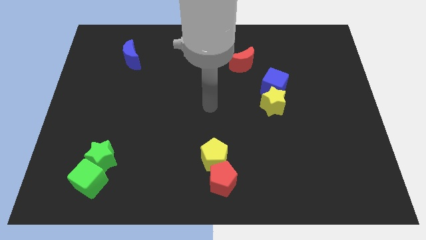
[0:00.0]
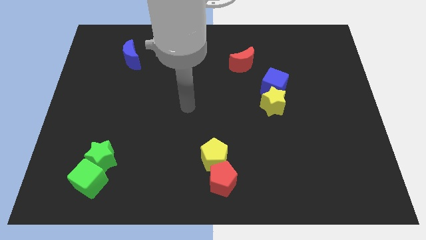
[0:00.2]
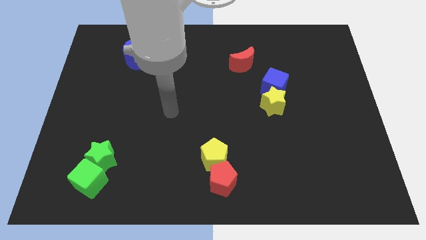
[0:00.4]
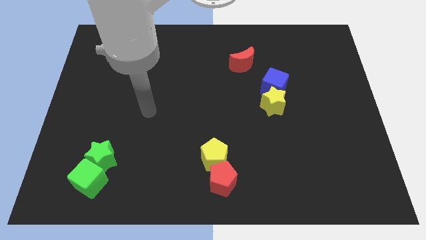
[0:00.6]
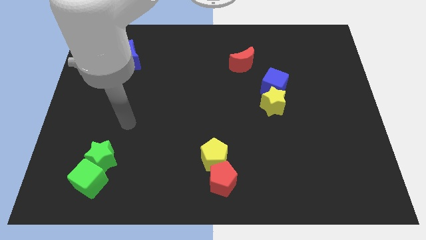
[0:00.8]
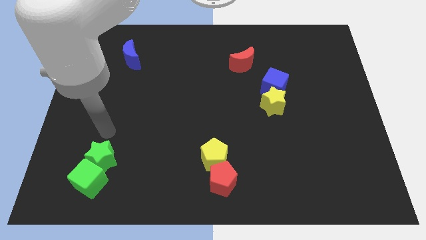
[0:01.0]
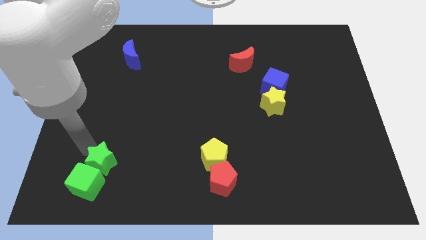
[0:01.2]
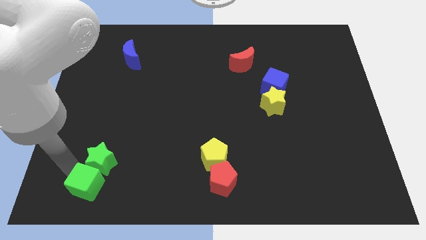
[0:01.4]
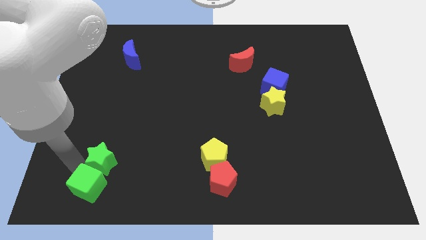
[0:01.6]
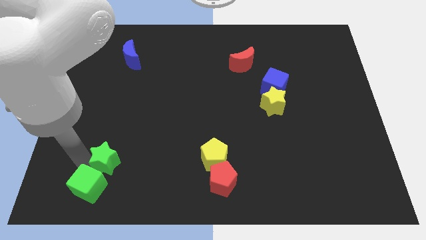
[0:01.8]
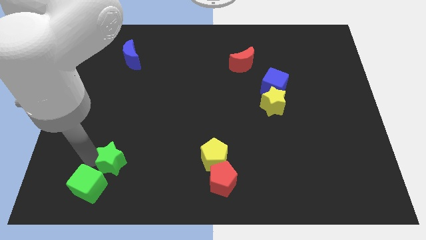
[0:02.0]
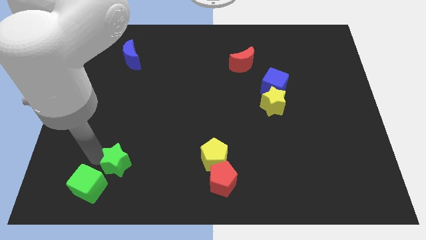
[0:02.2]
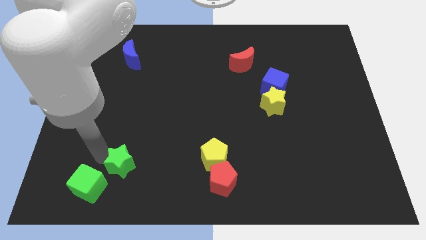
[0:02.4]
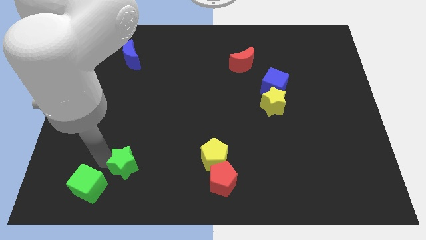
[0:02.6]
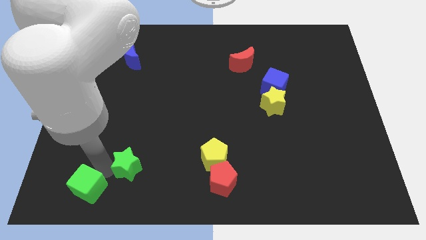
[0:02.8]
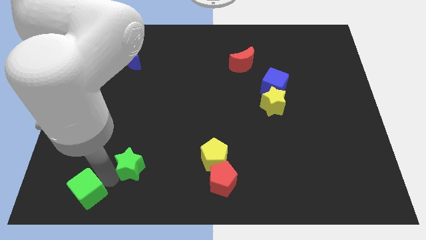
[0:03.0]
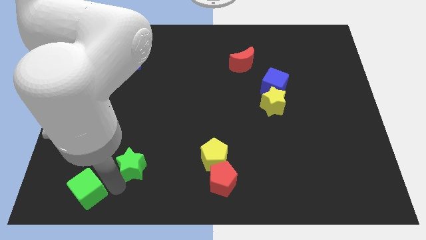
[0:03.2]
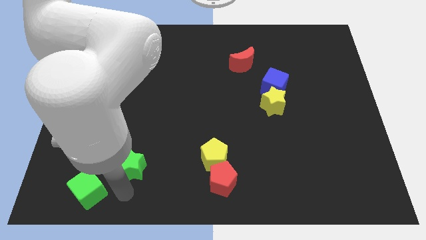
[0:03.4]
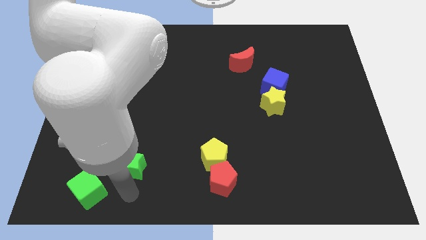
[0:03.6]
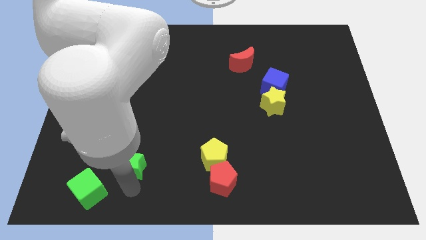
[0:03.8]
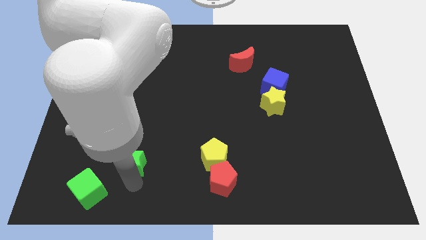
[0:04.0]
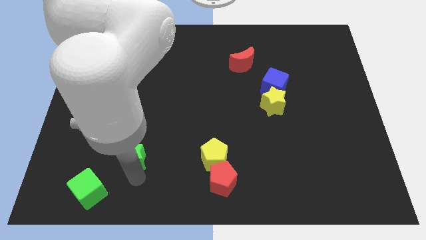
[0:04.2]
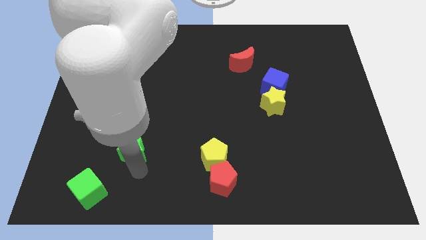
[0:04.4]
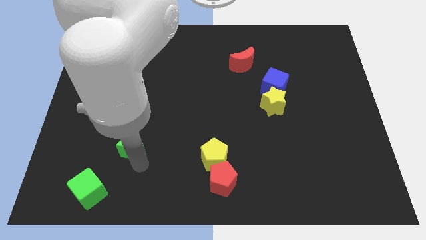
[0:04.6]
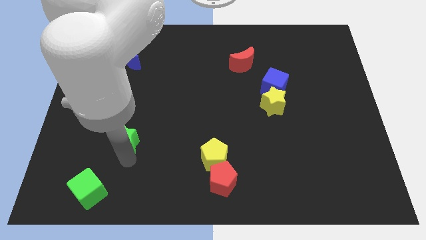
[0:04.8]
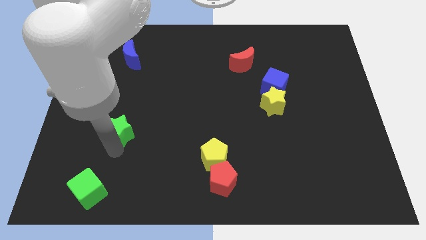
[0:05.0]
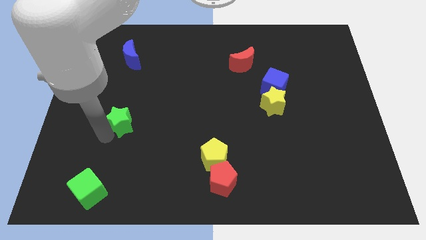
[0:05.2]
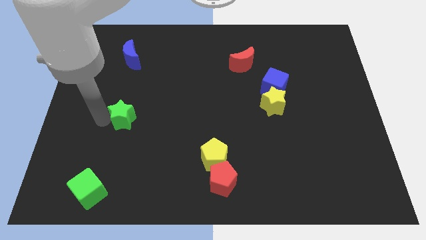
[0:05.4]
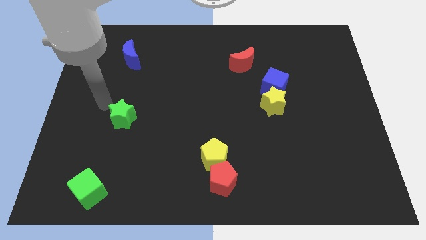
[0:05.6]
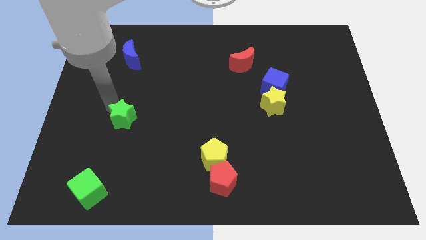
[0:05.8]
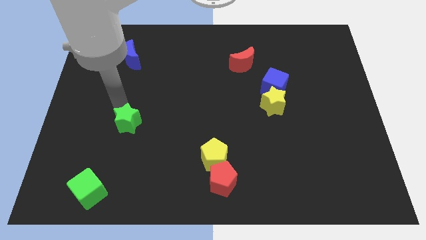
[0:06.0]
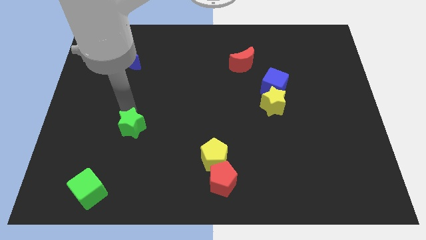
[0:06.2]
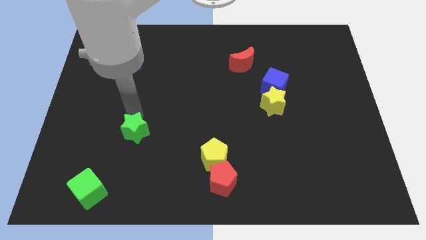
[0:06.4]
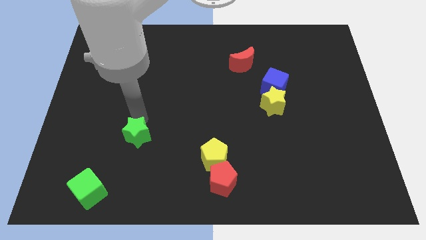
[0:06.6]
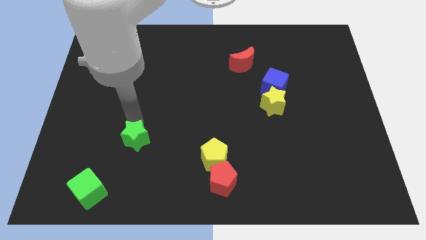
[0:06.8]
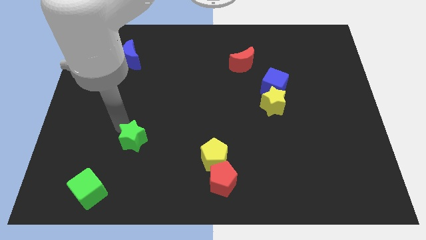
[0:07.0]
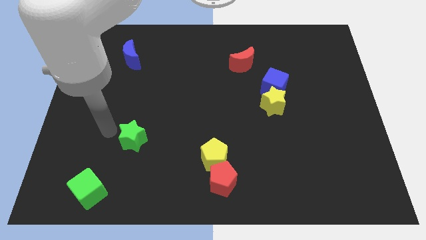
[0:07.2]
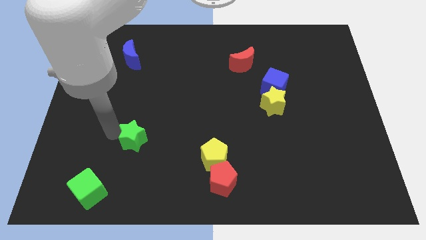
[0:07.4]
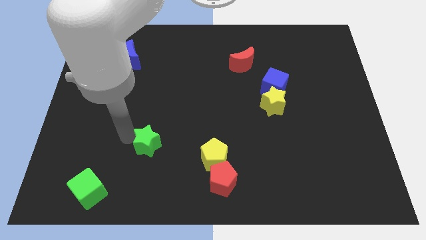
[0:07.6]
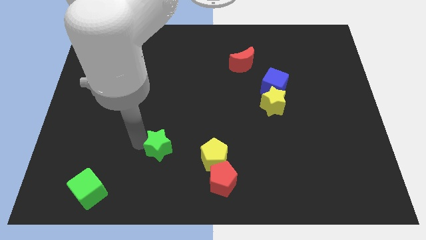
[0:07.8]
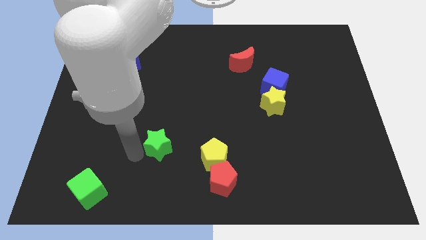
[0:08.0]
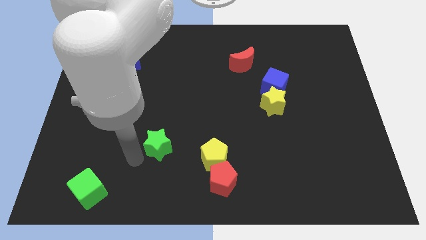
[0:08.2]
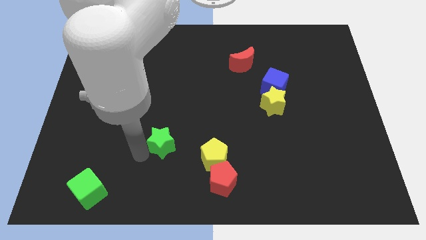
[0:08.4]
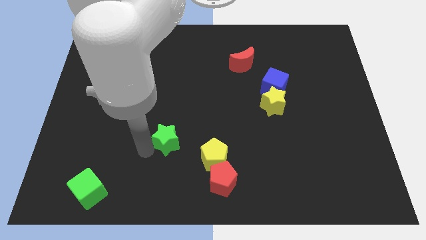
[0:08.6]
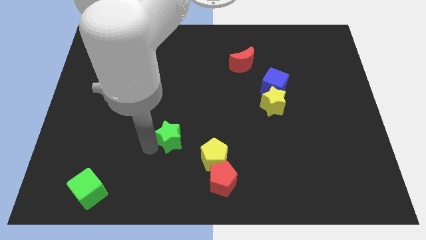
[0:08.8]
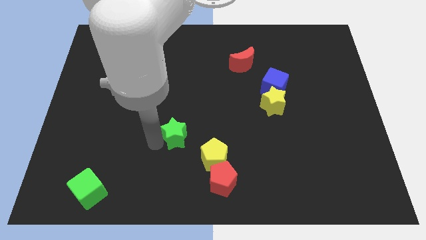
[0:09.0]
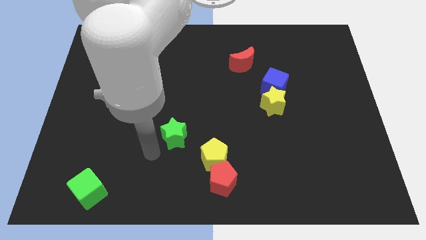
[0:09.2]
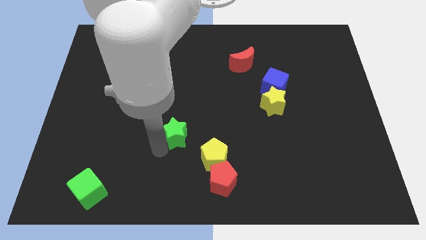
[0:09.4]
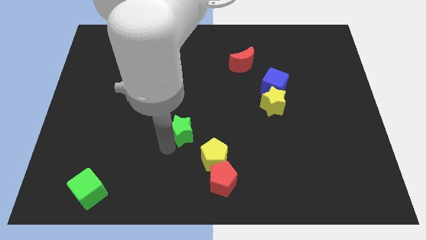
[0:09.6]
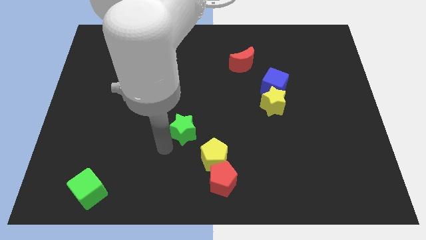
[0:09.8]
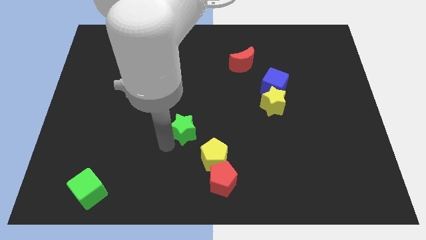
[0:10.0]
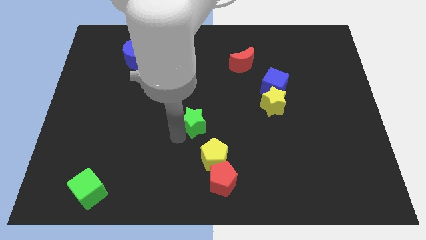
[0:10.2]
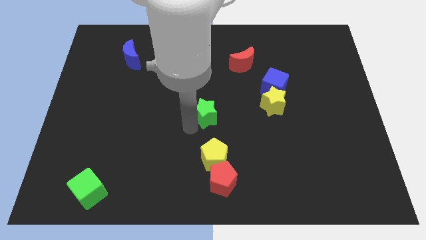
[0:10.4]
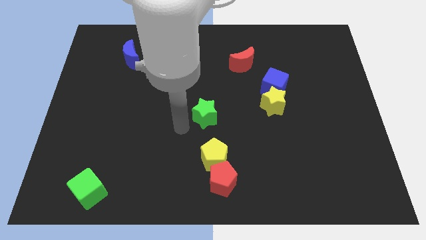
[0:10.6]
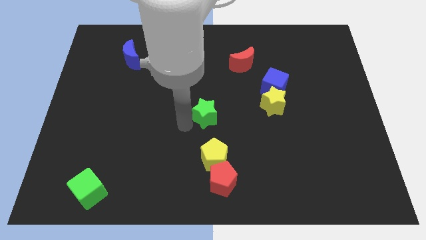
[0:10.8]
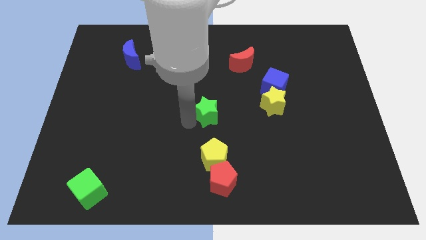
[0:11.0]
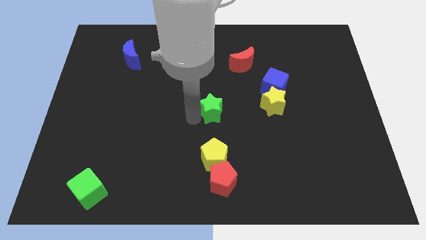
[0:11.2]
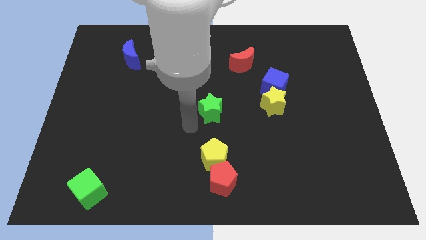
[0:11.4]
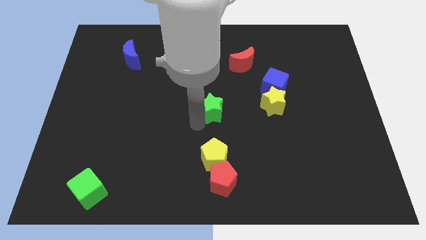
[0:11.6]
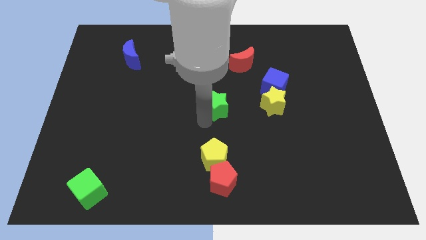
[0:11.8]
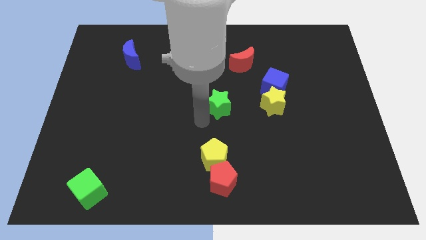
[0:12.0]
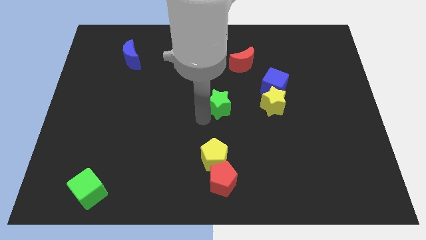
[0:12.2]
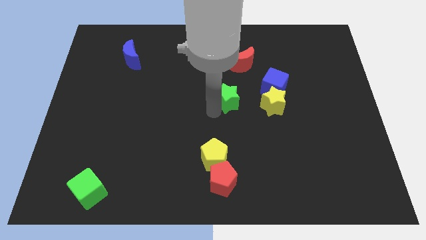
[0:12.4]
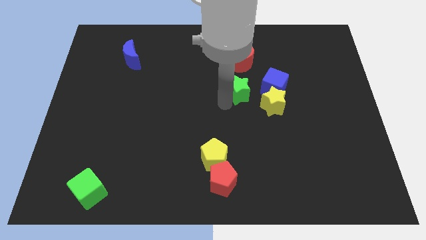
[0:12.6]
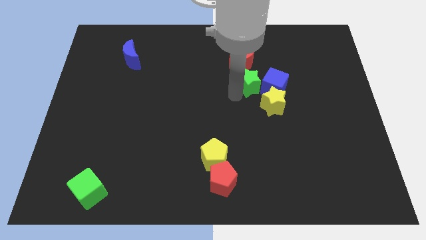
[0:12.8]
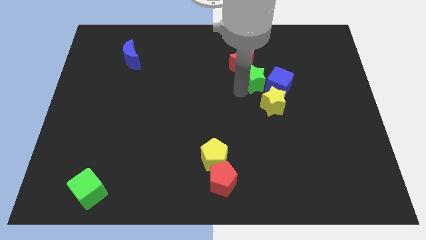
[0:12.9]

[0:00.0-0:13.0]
slide the green star to the top side of the yellow star
